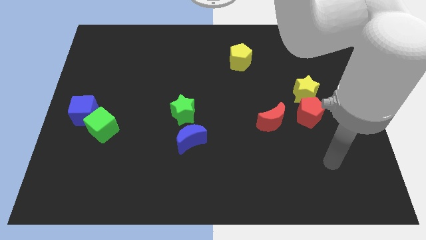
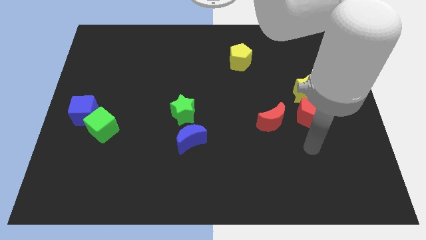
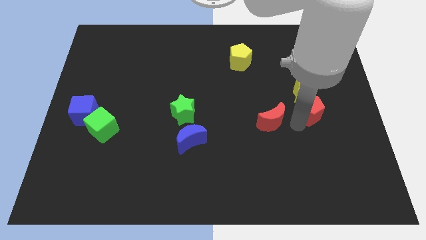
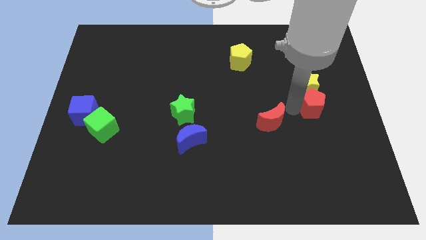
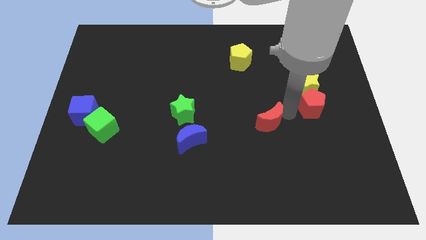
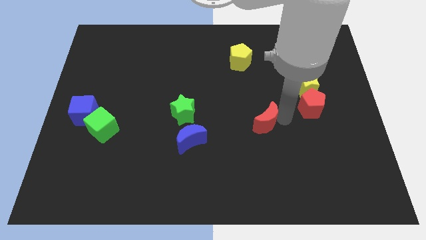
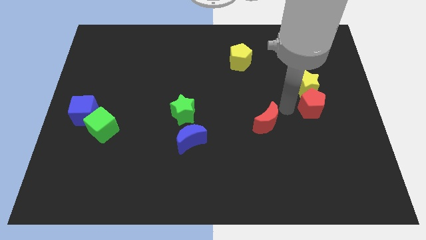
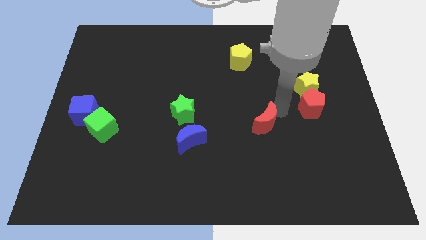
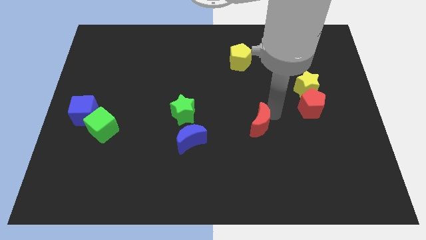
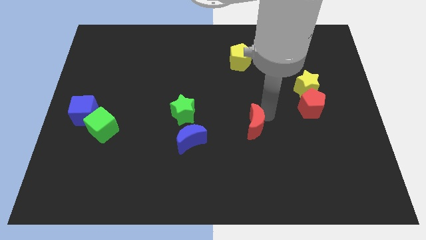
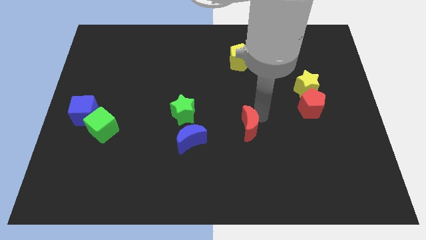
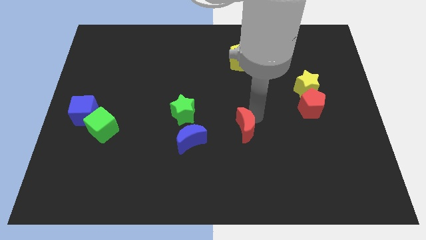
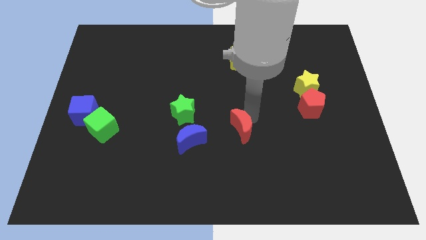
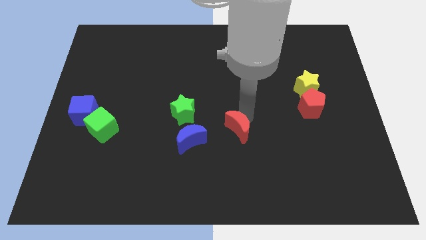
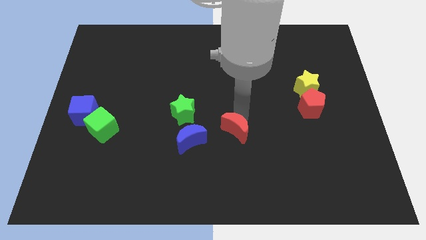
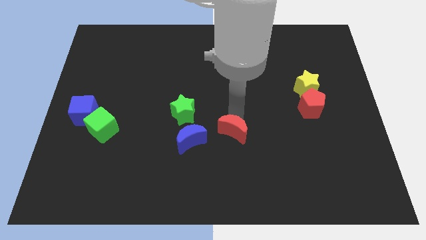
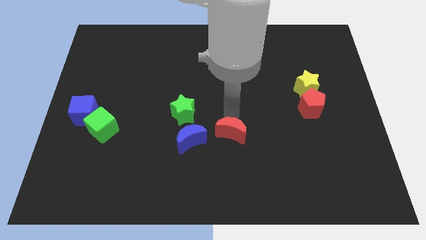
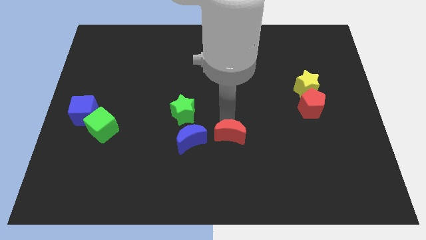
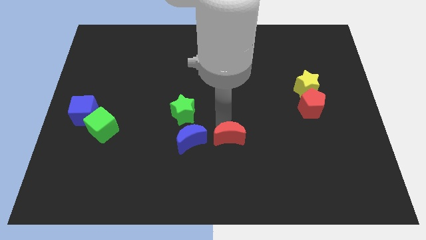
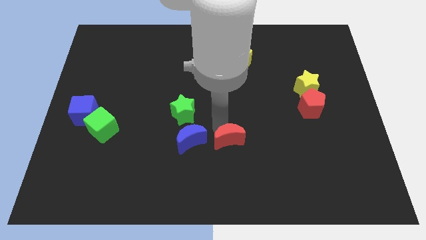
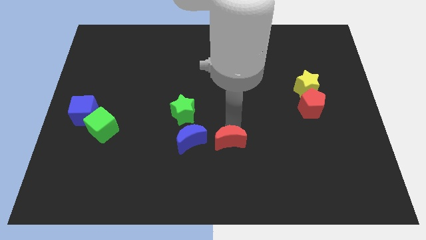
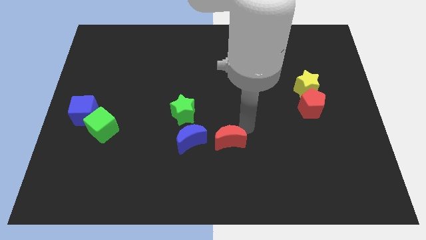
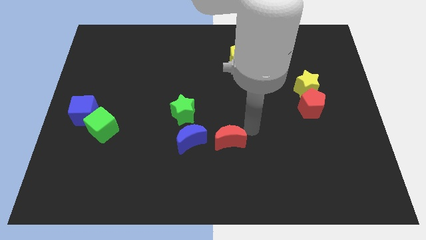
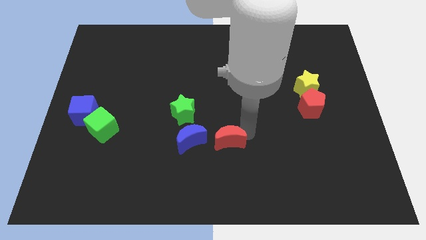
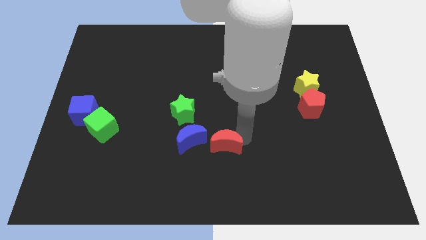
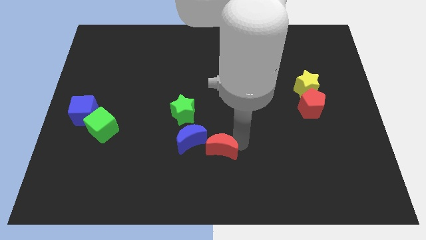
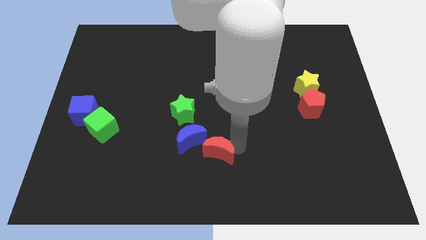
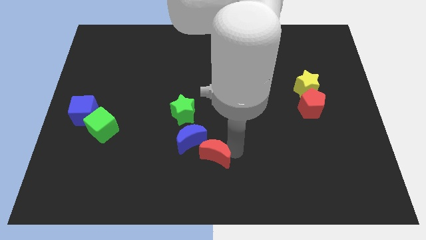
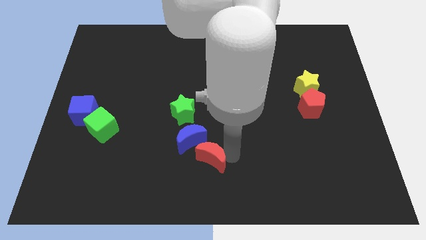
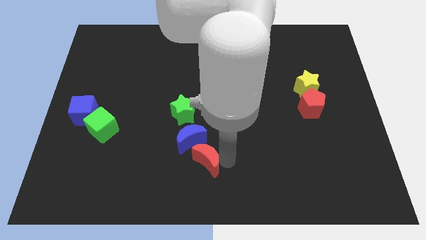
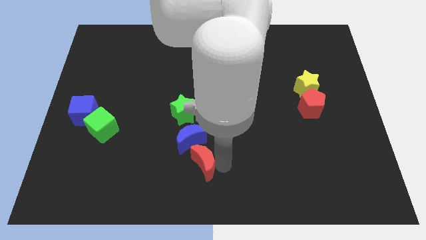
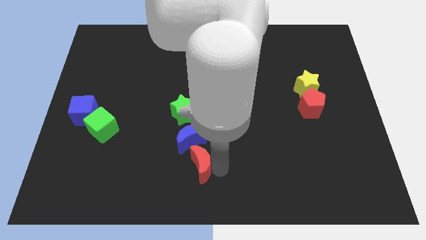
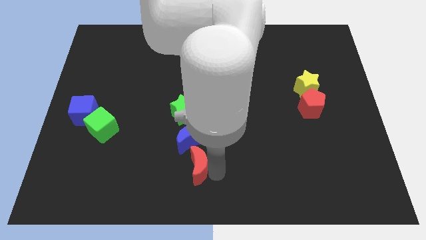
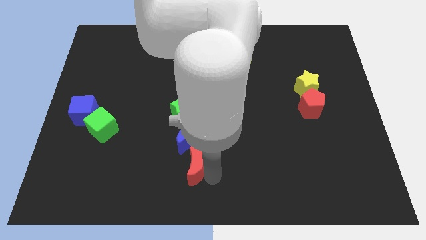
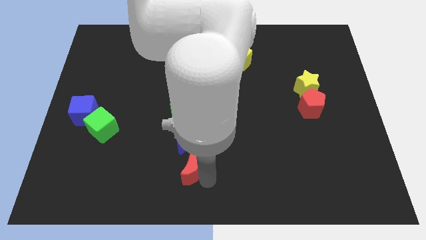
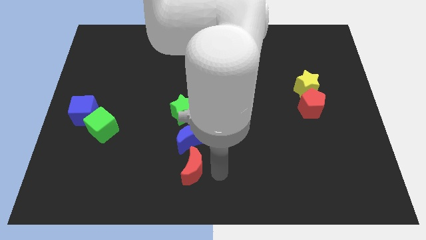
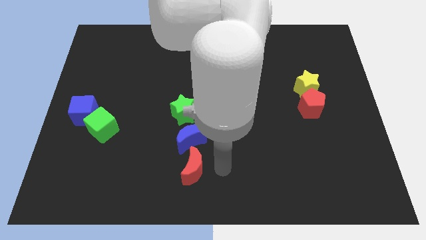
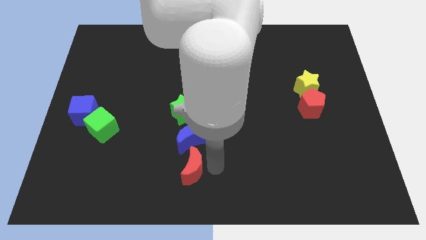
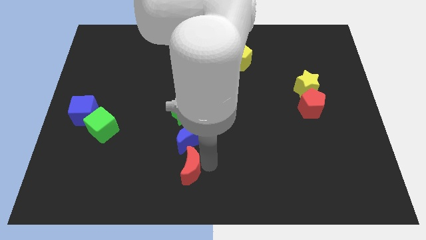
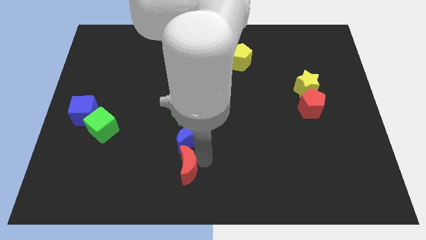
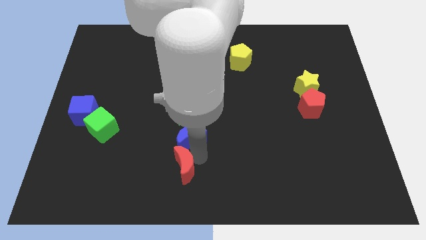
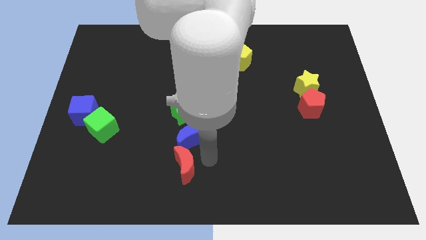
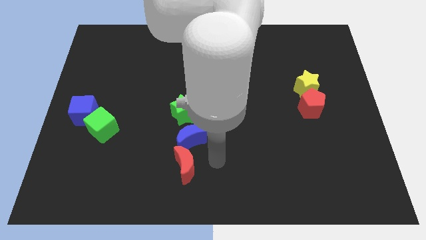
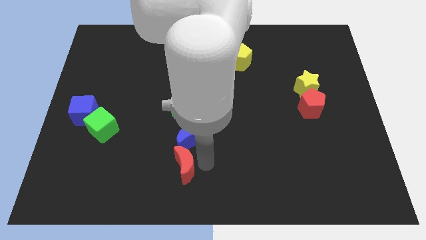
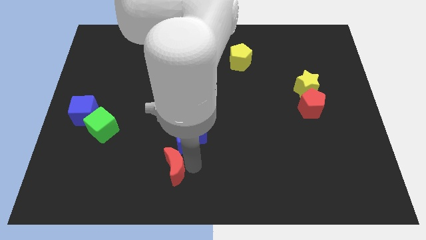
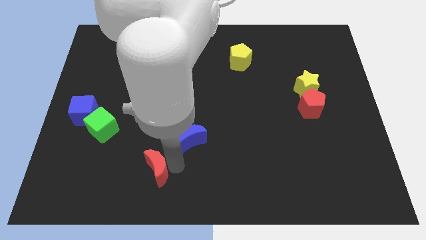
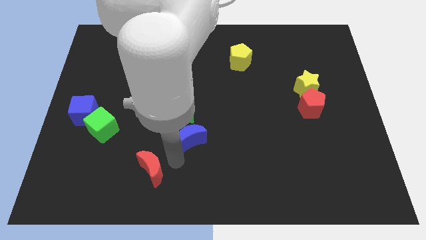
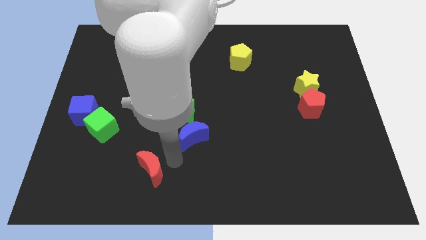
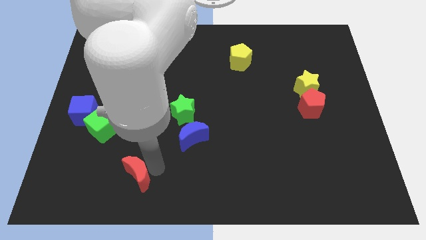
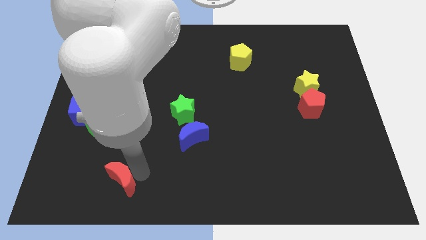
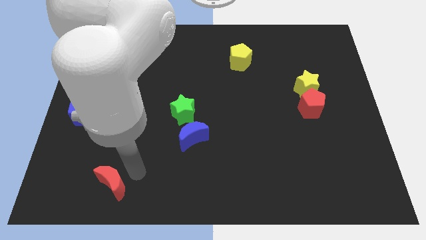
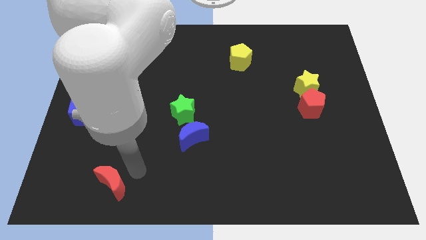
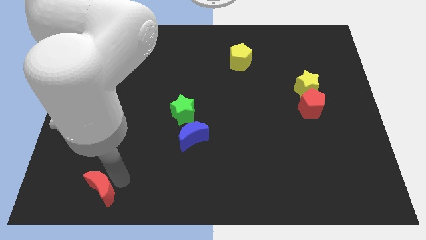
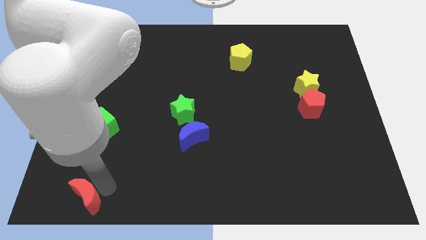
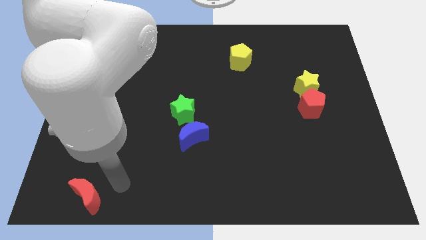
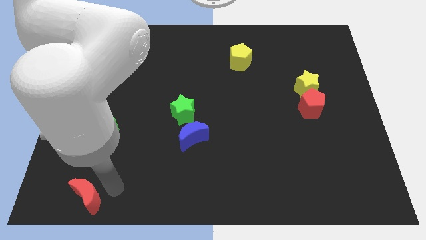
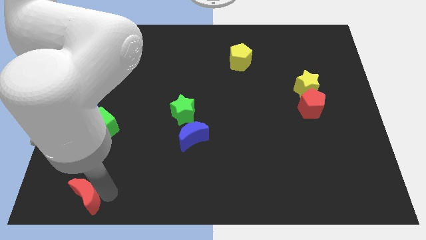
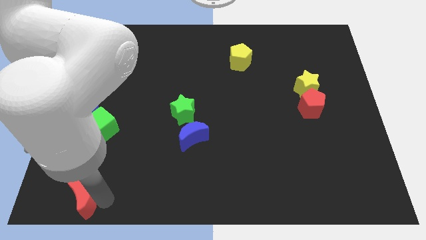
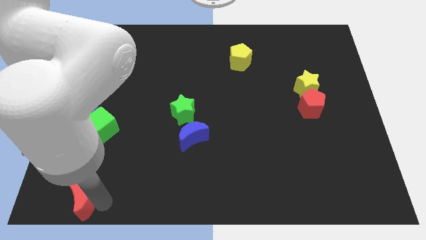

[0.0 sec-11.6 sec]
push the red moon to the lower left corner

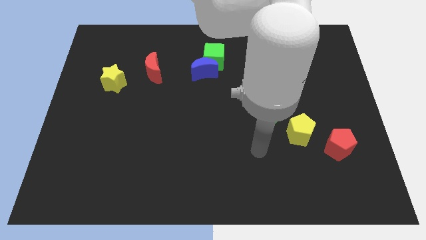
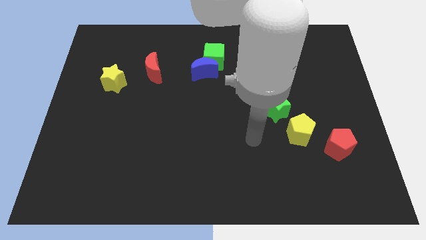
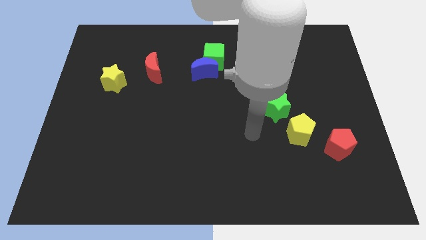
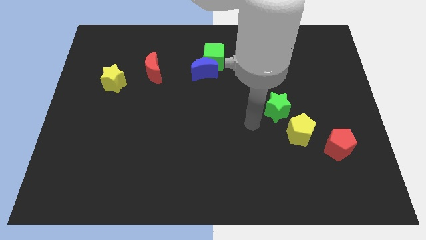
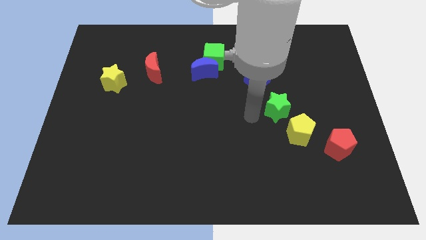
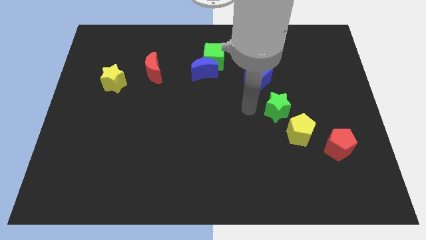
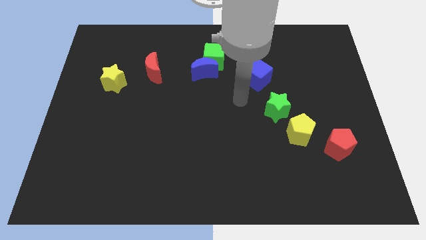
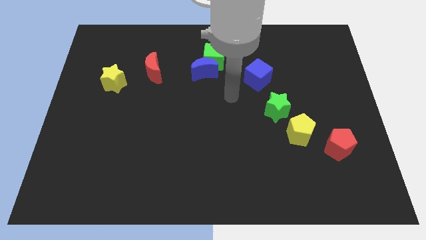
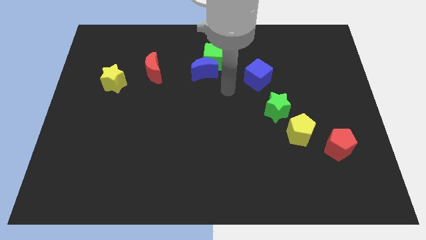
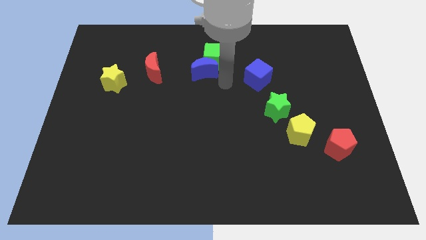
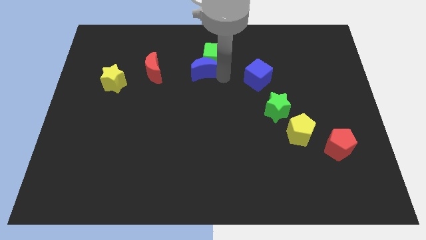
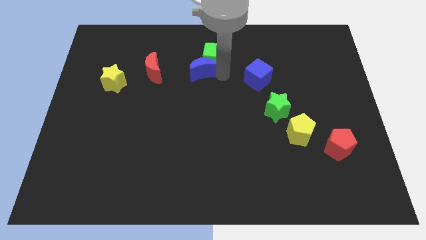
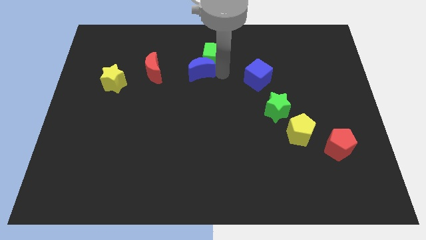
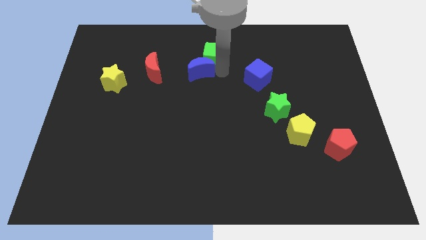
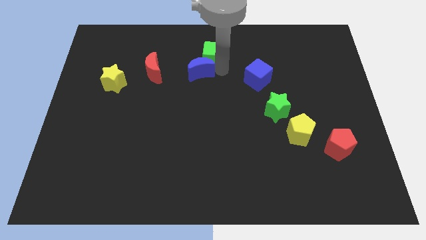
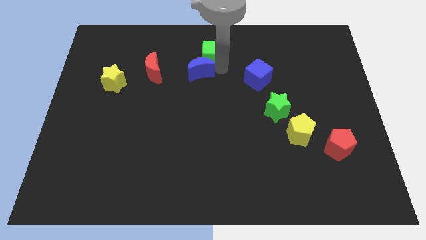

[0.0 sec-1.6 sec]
move the green cube to the top side
